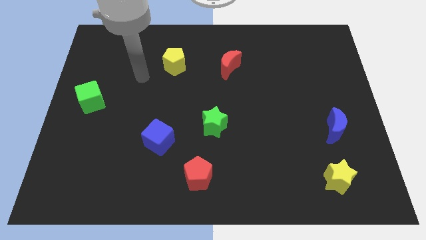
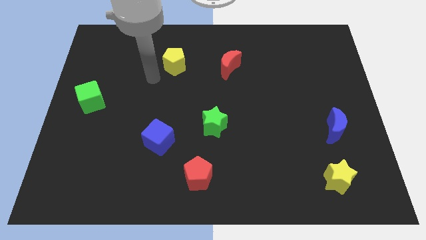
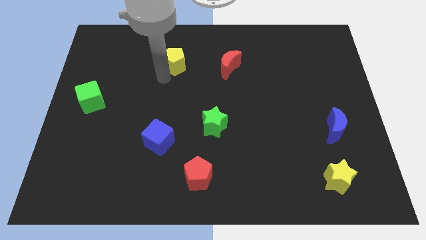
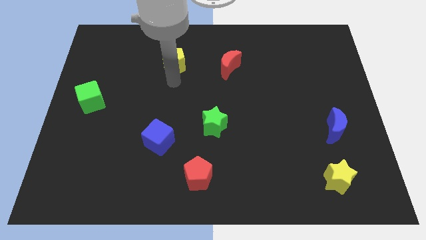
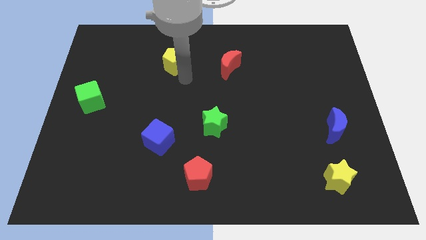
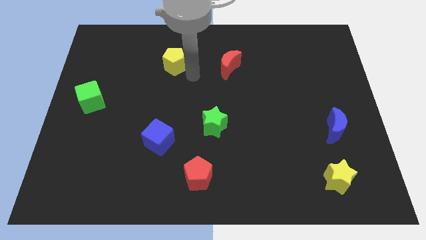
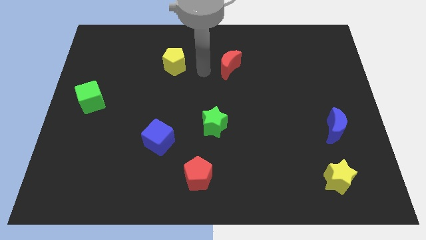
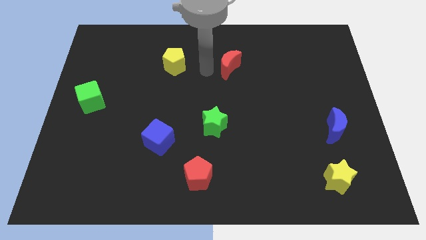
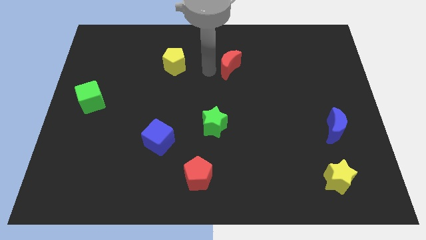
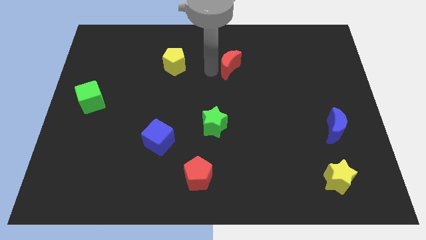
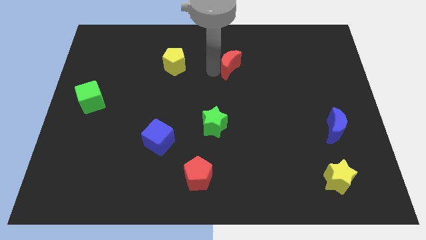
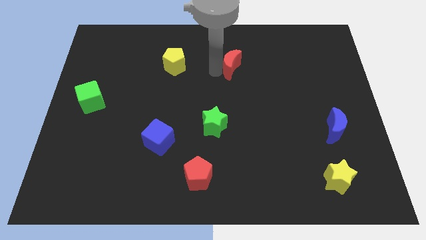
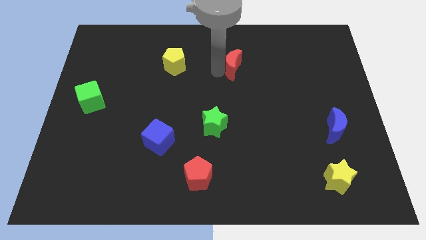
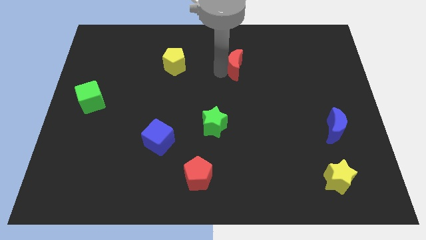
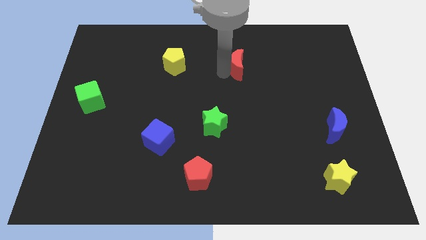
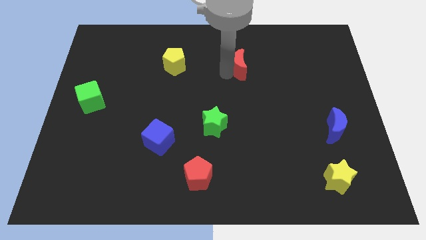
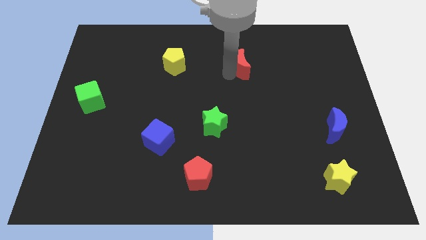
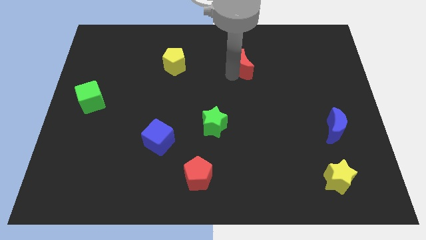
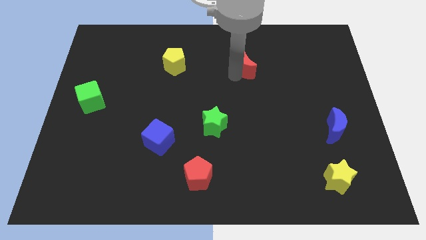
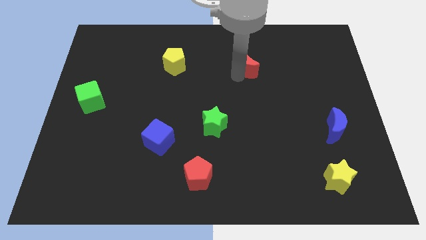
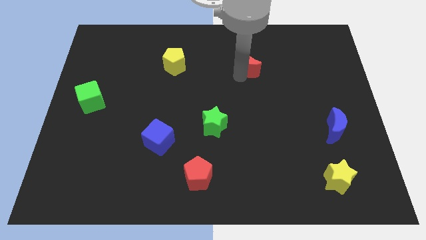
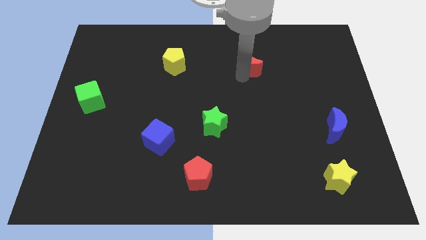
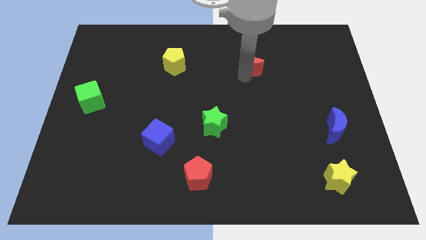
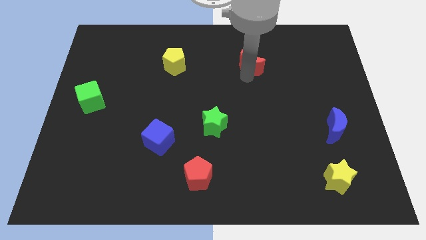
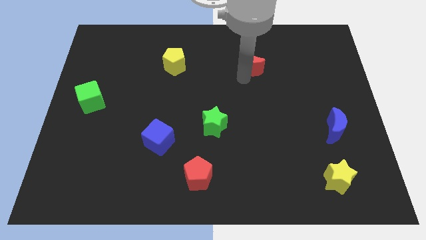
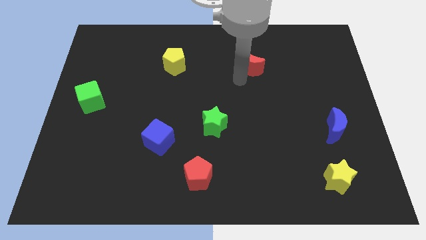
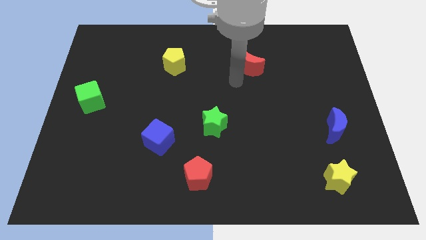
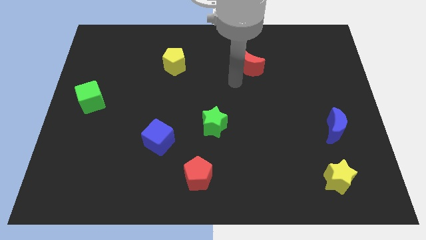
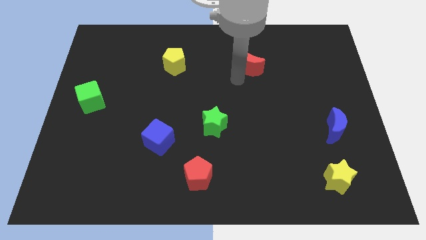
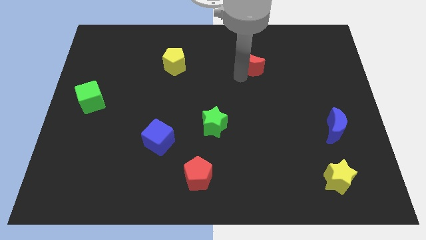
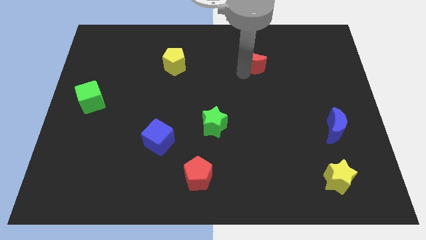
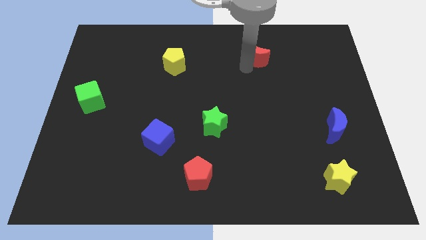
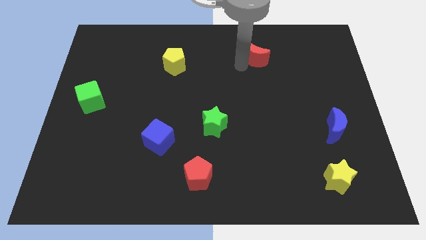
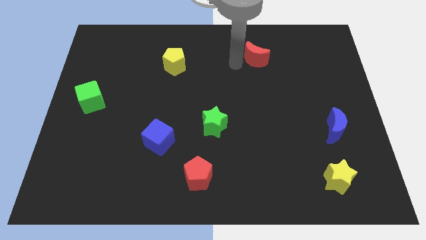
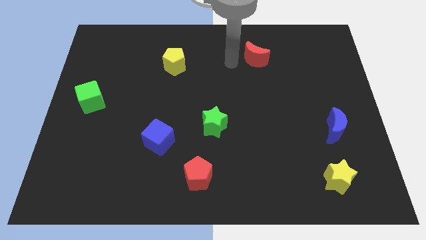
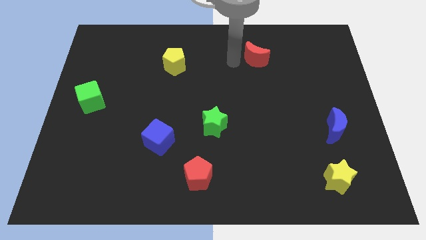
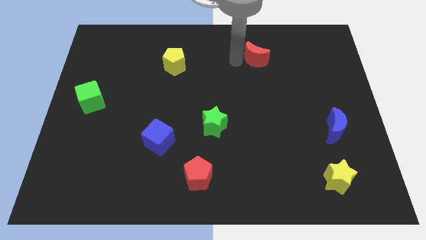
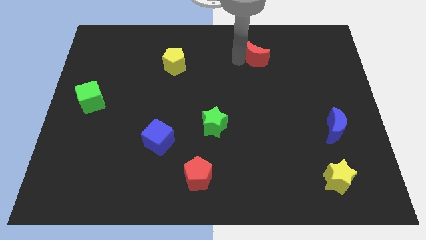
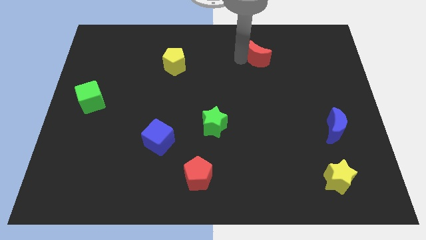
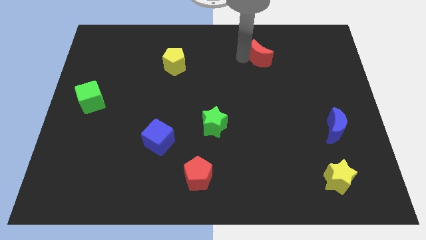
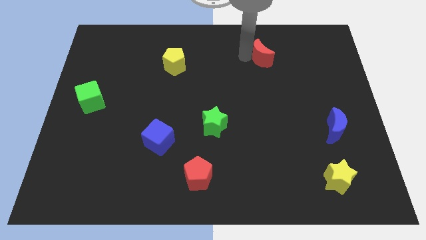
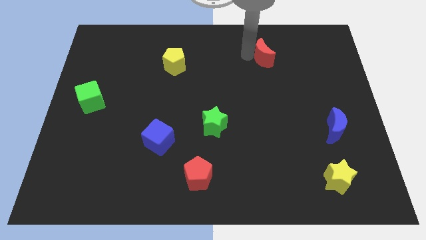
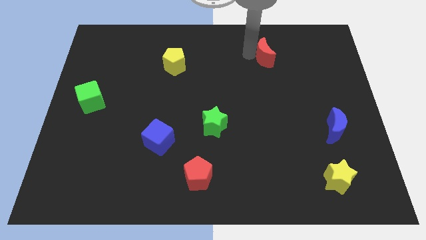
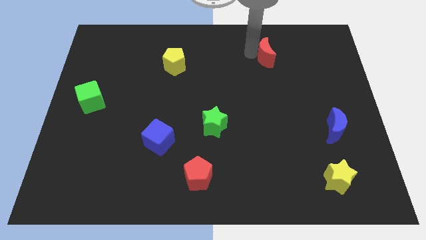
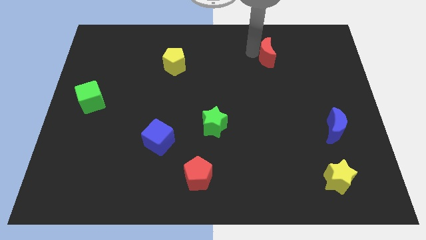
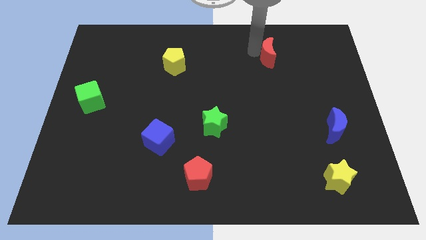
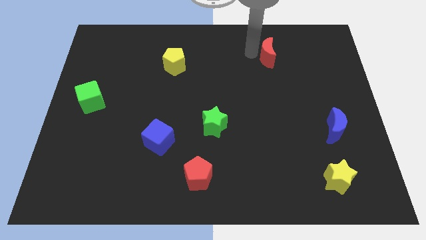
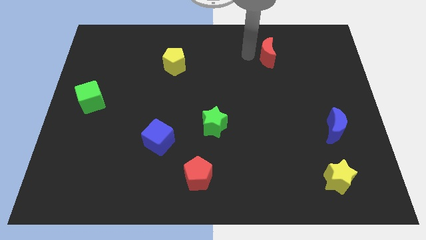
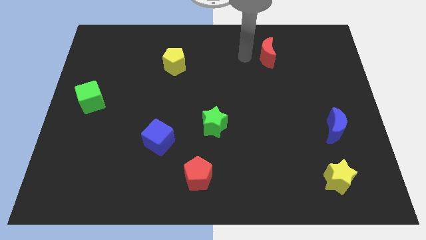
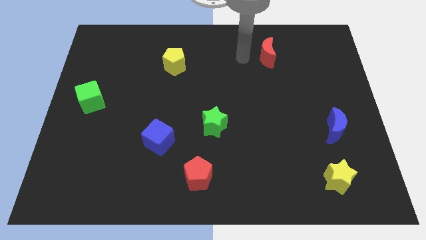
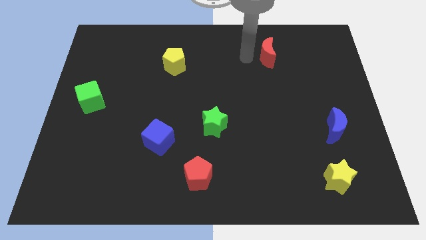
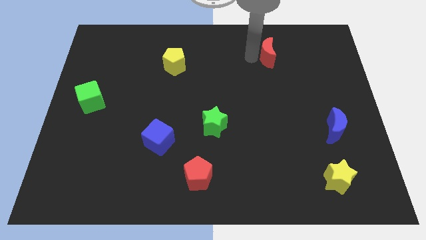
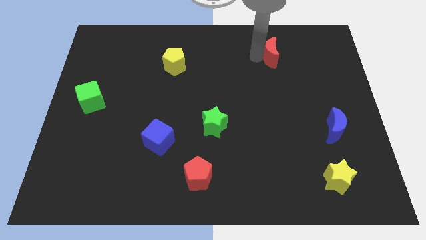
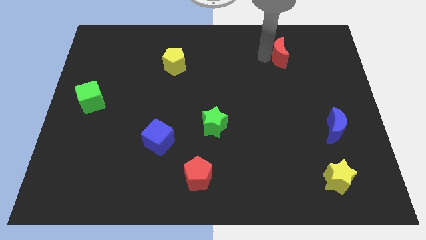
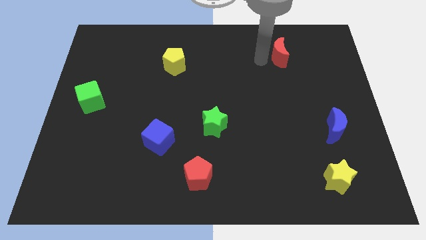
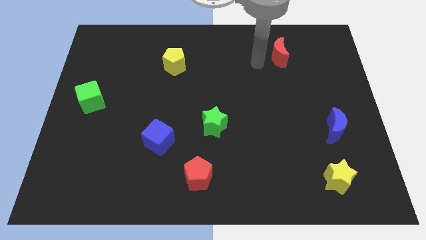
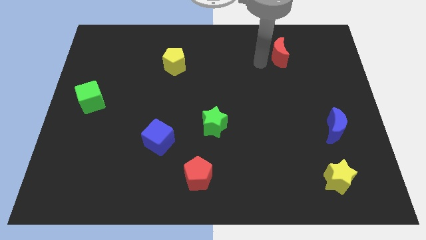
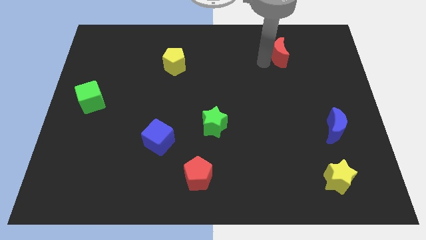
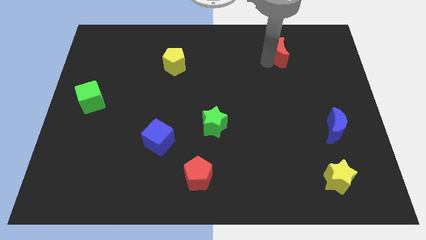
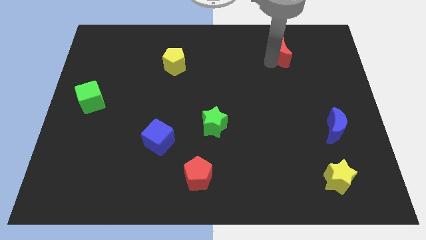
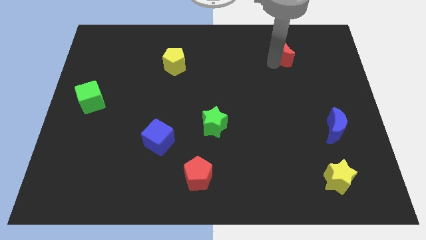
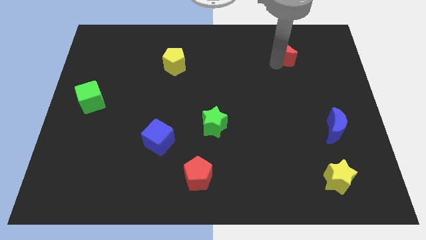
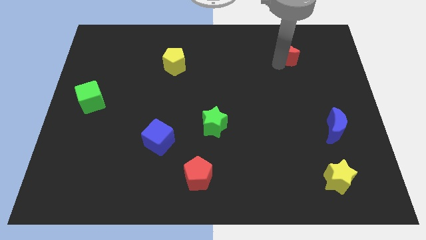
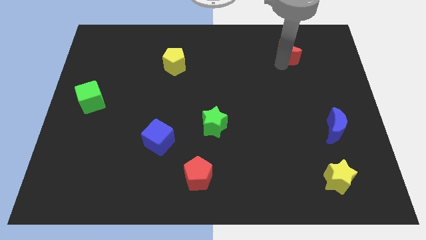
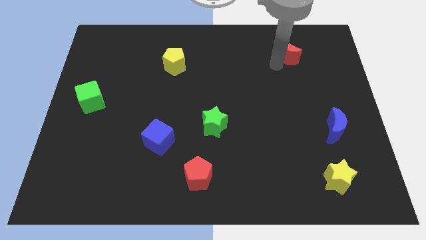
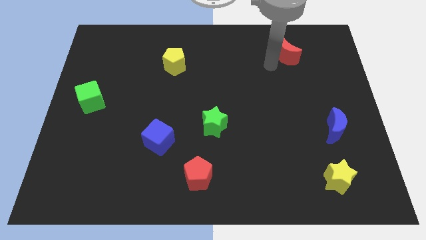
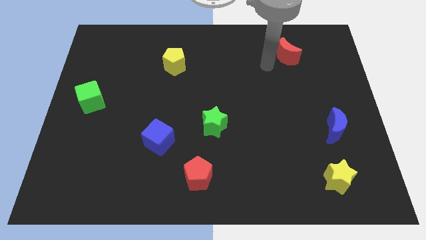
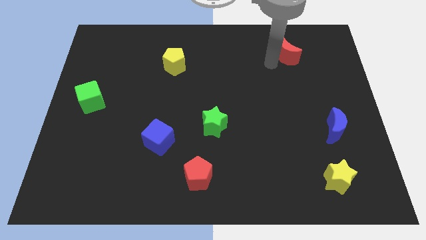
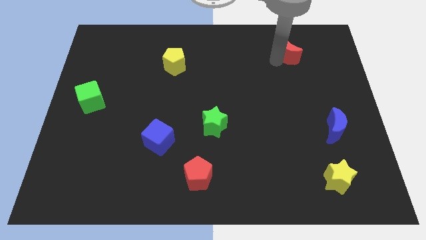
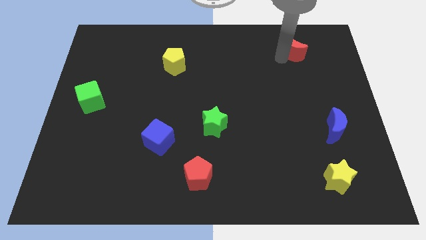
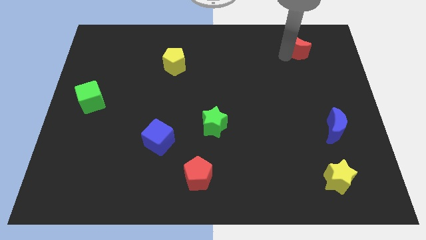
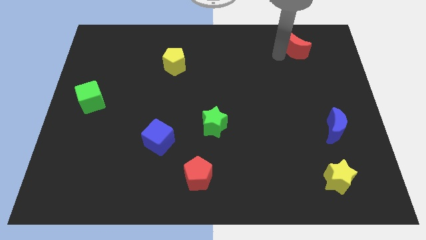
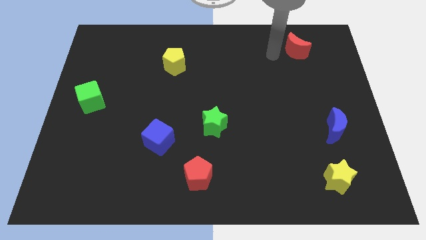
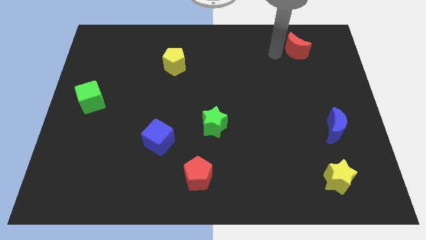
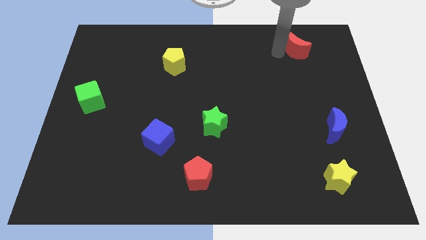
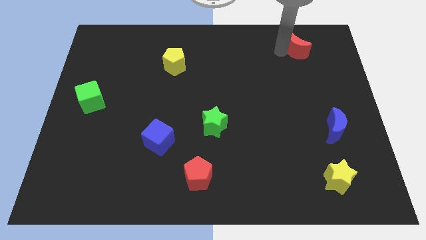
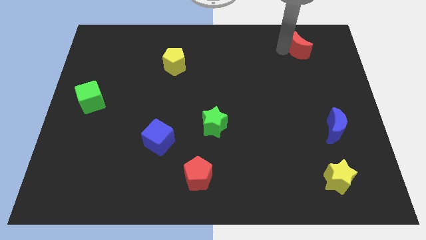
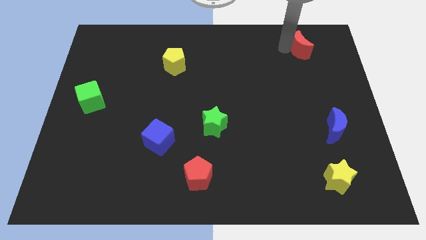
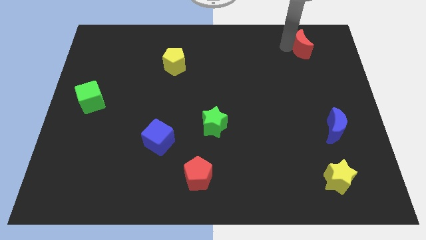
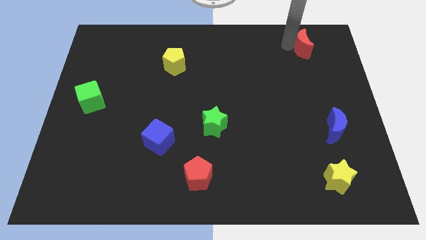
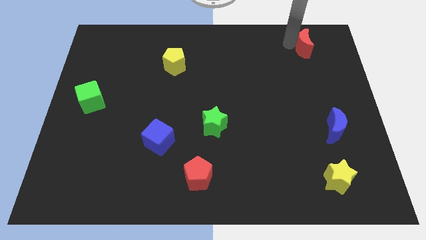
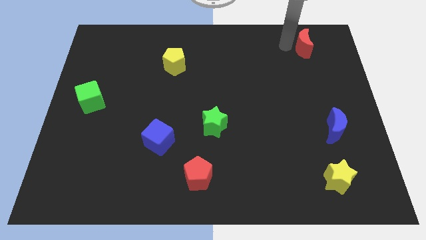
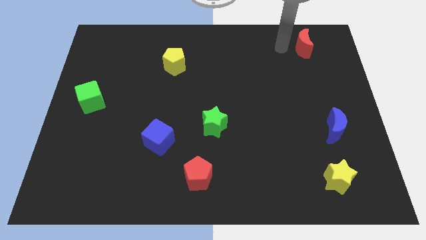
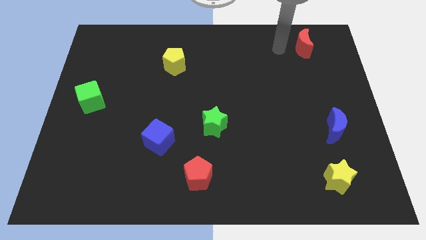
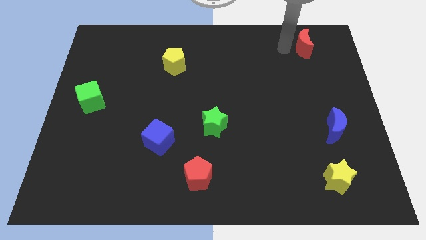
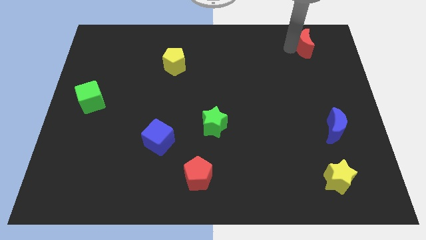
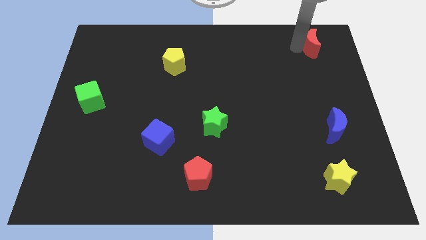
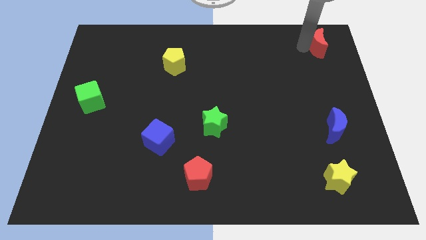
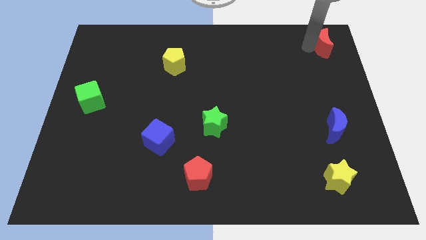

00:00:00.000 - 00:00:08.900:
move the red moon to the upper right corner
